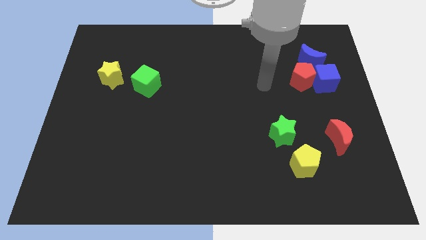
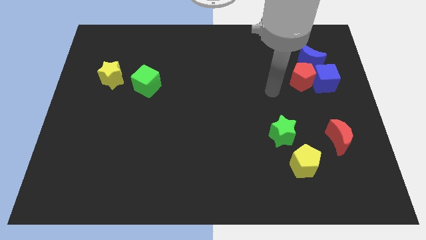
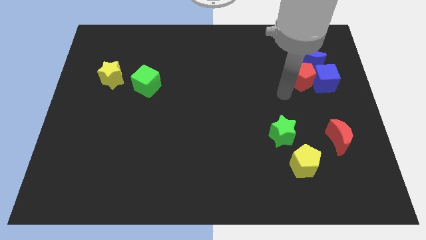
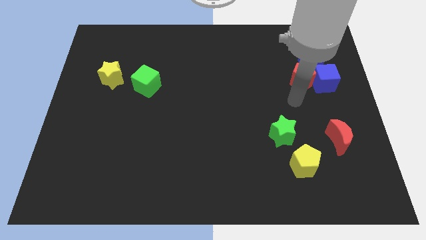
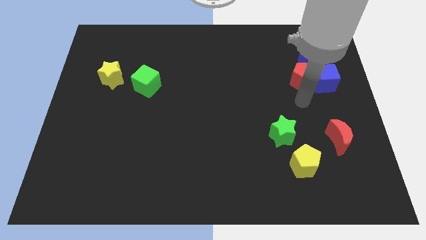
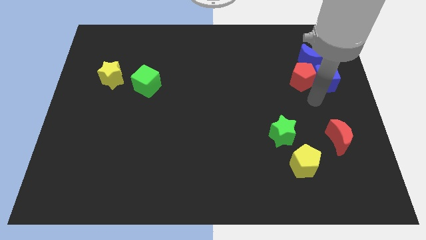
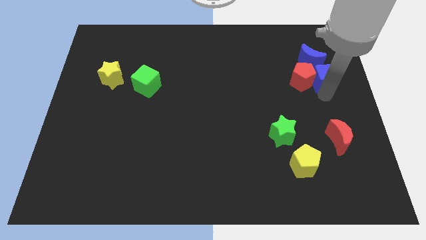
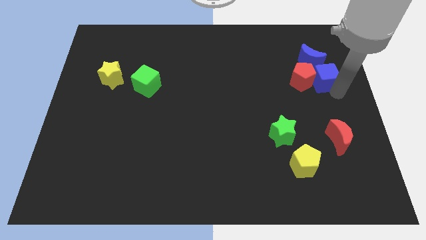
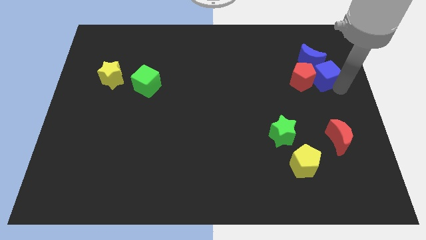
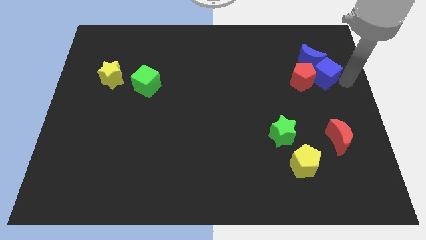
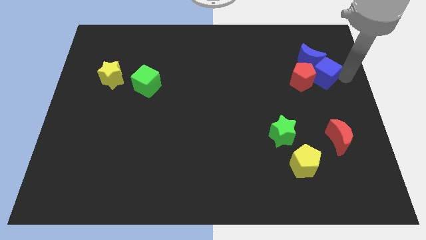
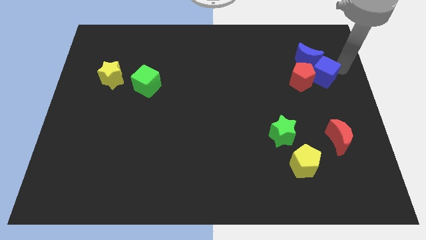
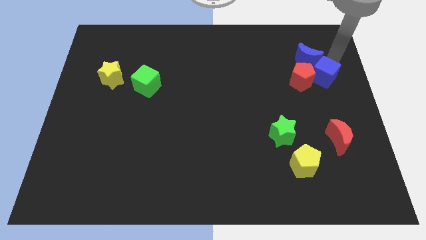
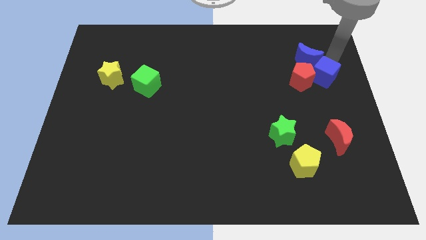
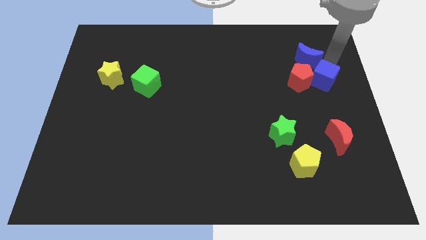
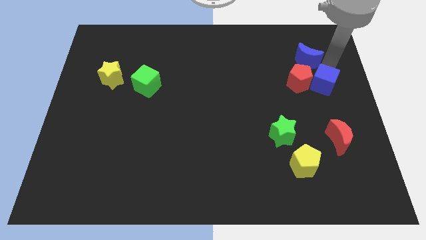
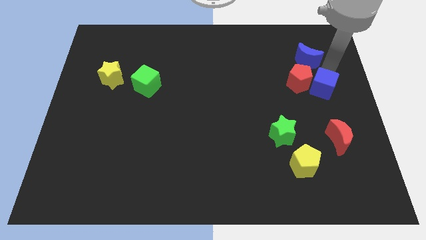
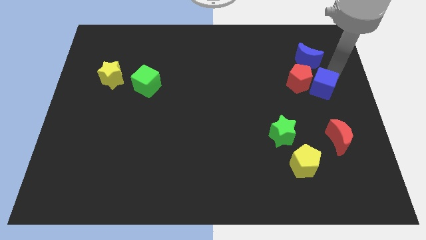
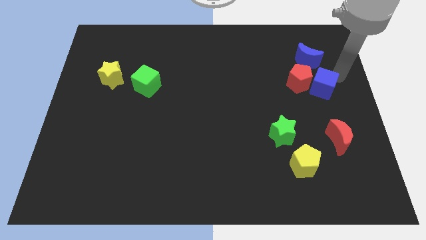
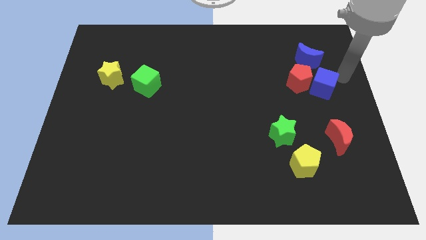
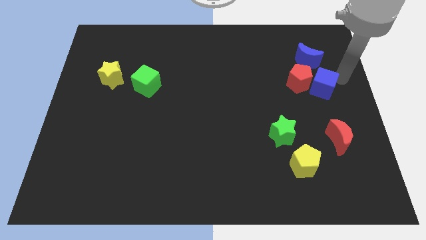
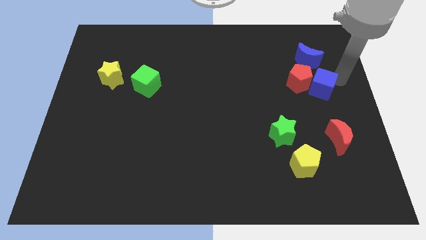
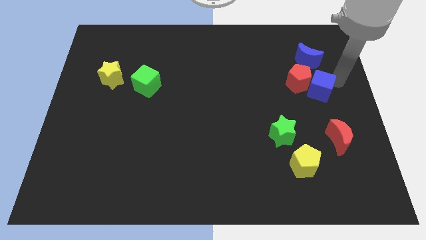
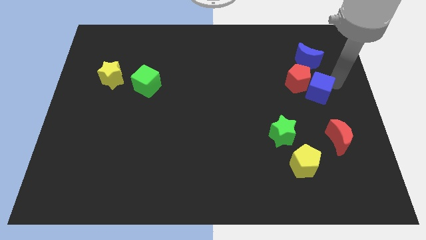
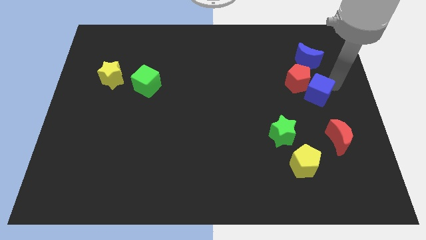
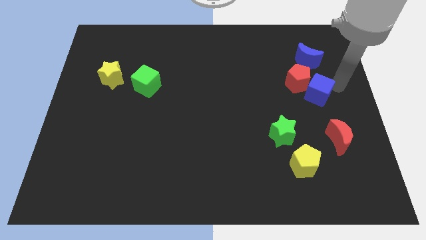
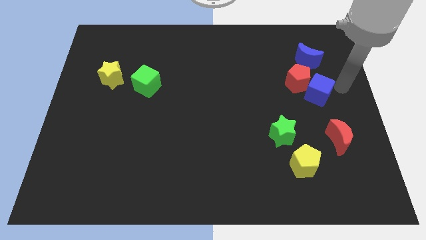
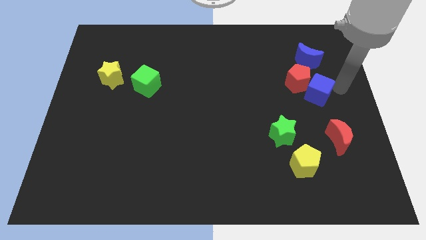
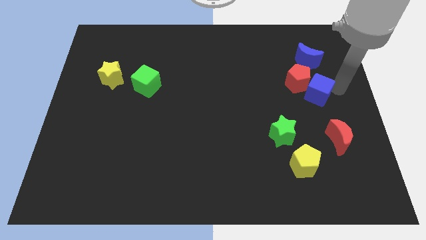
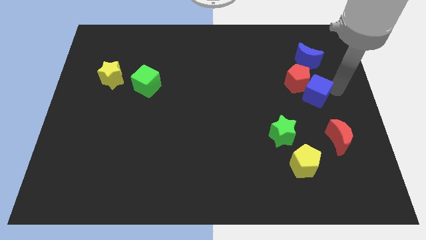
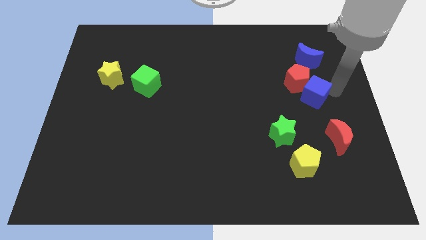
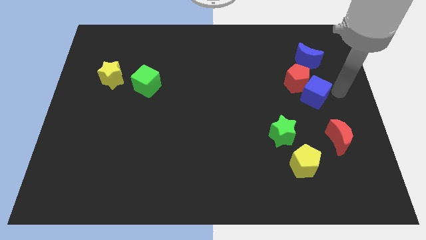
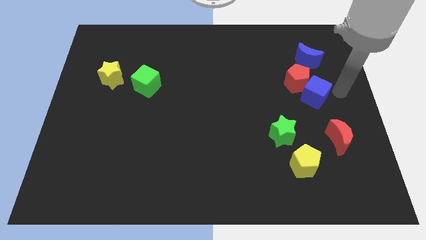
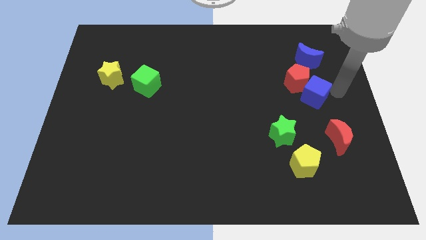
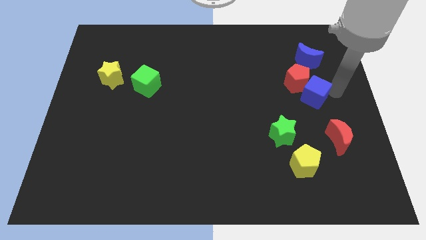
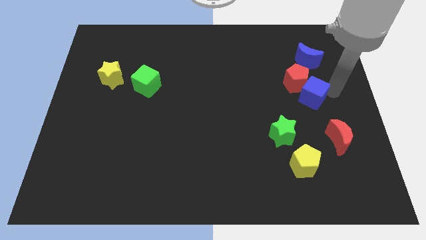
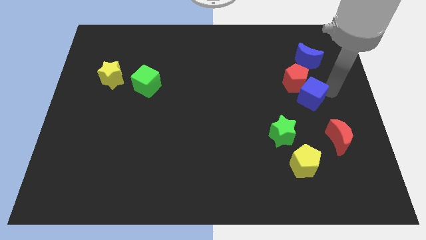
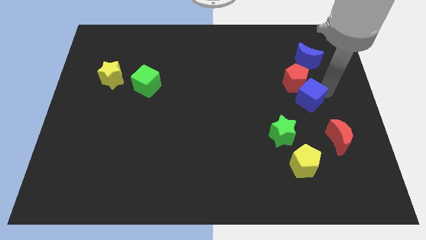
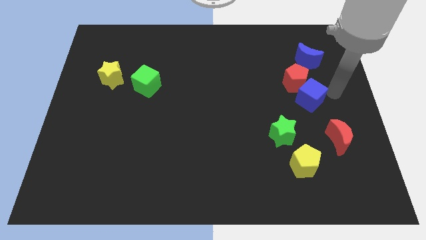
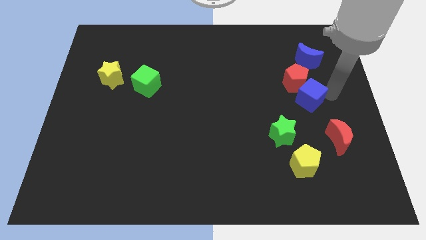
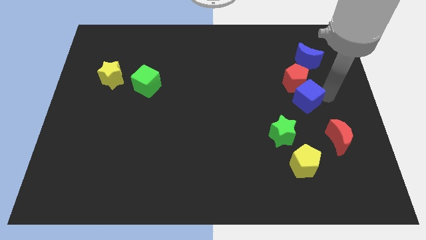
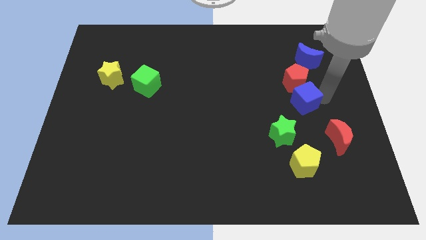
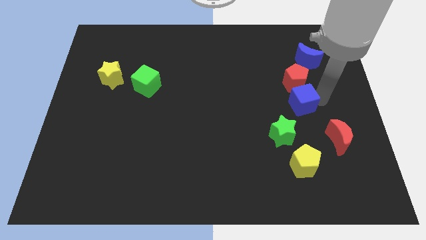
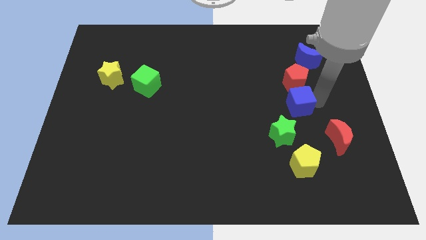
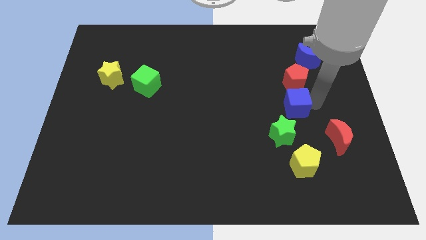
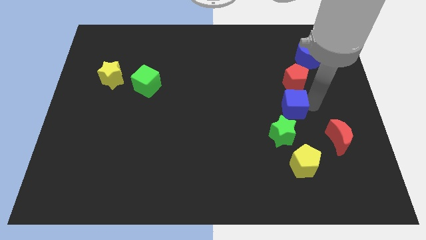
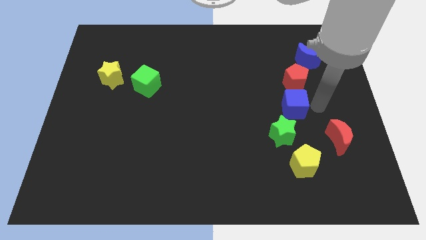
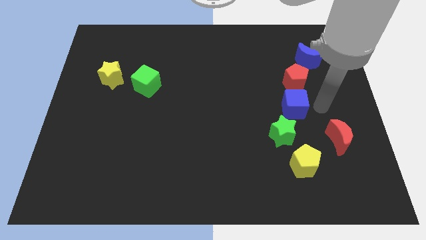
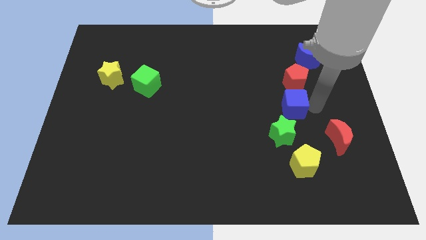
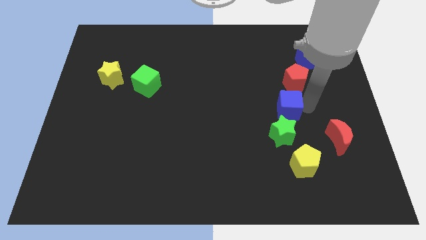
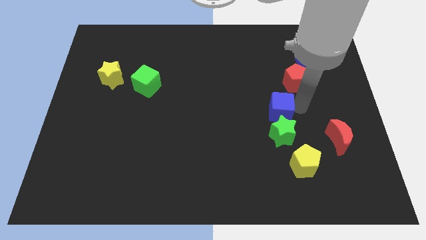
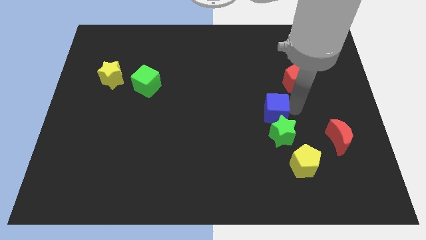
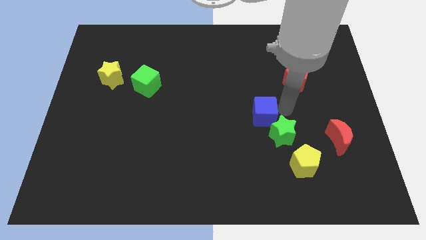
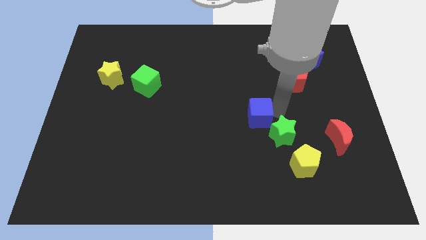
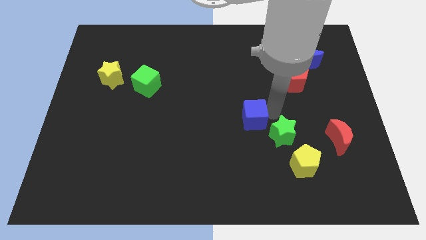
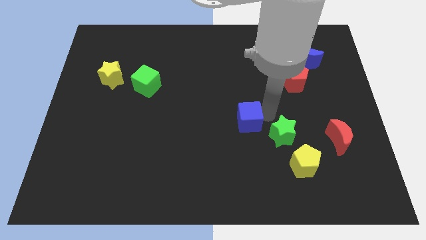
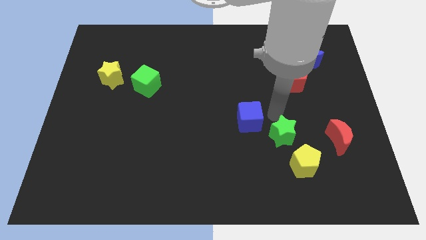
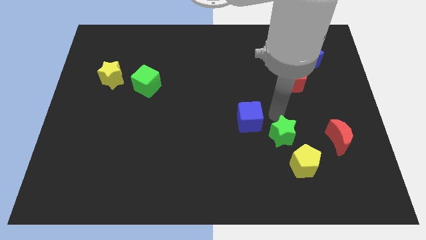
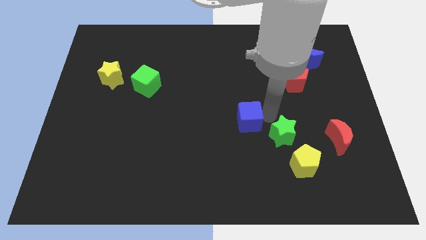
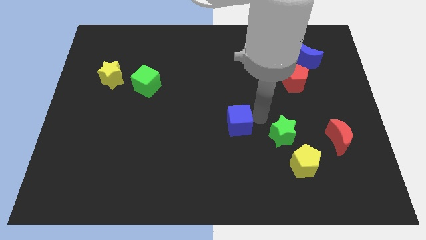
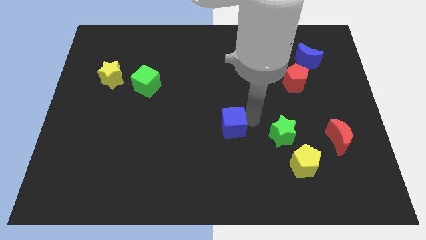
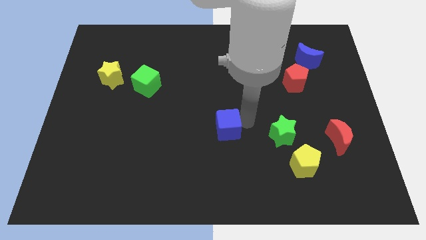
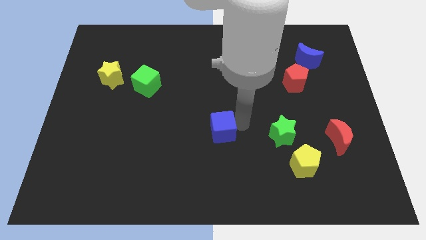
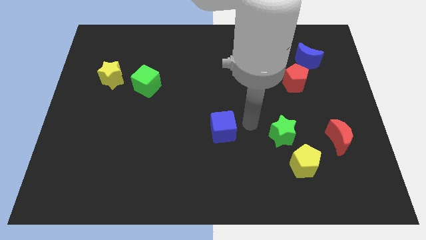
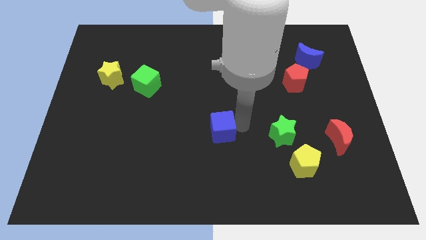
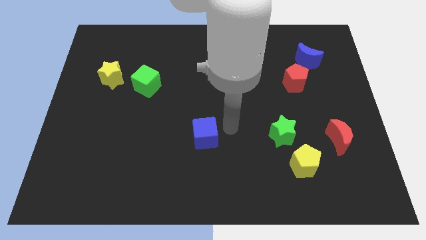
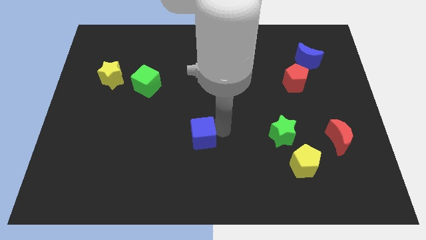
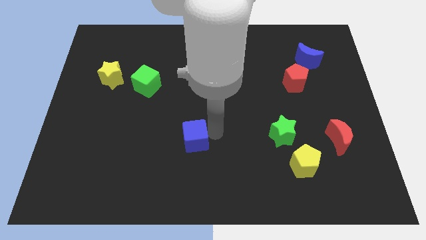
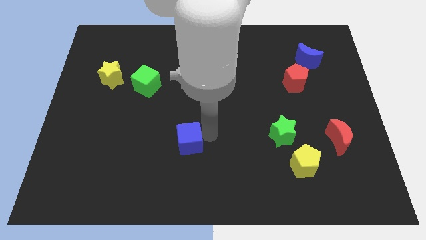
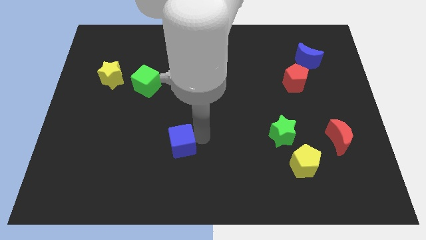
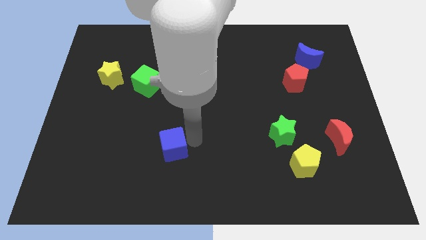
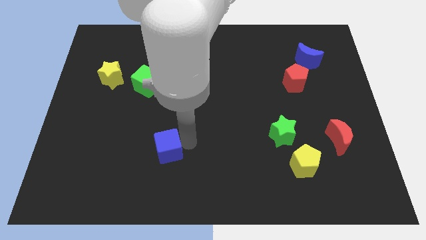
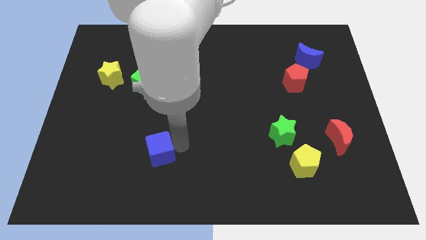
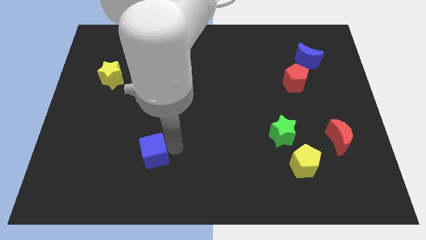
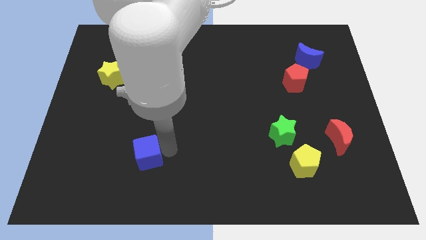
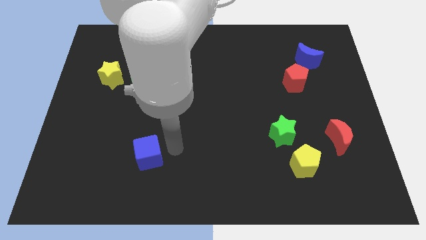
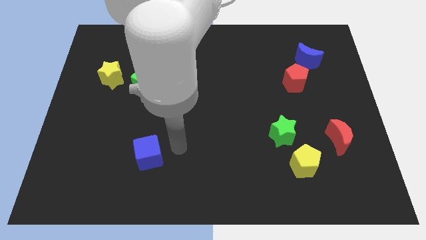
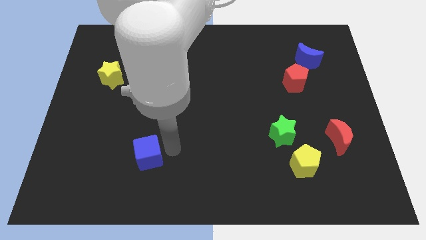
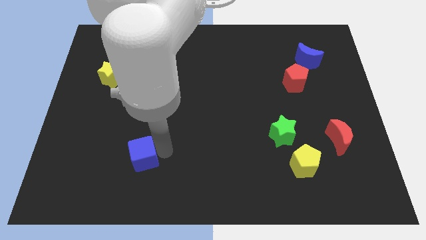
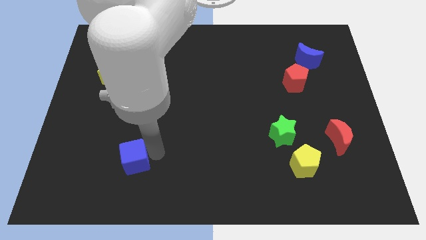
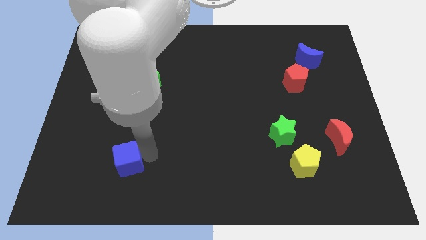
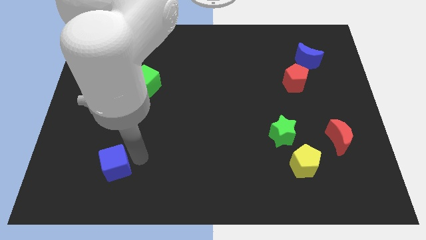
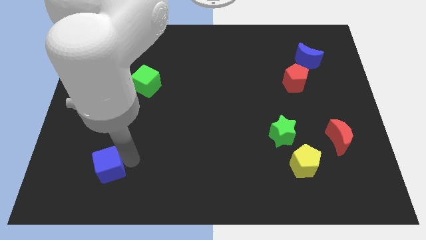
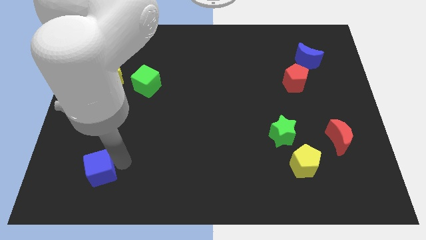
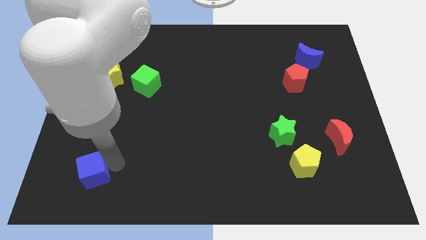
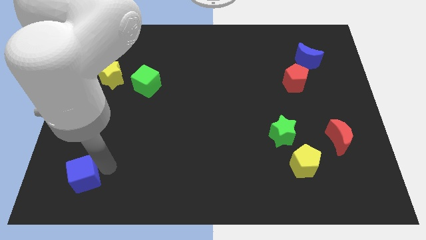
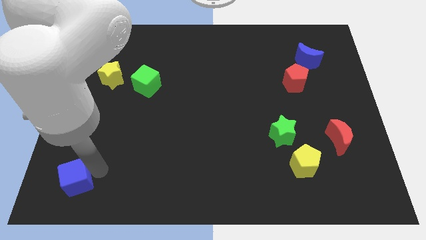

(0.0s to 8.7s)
move the blue cube to the bottom left
